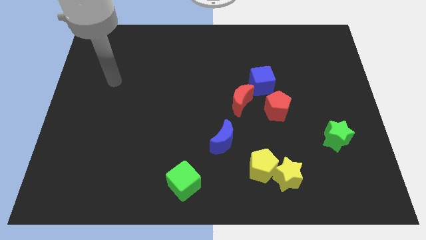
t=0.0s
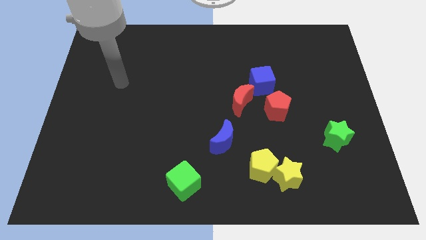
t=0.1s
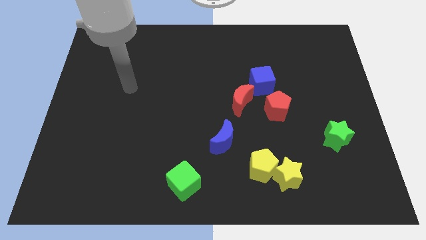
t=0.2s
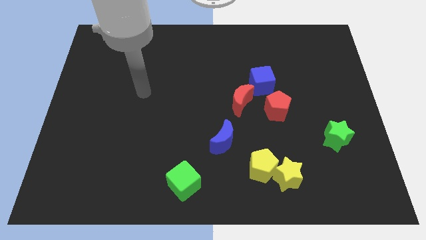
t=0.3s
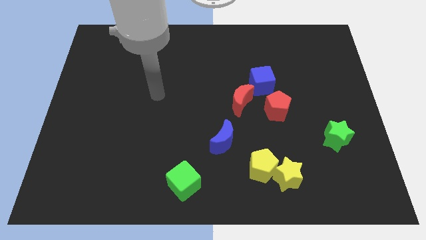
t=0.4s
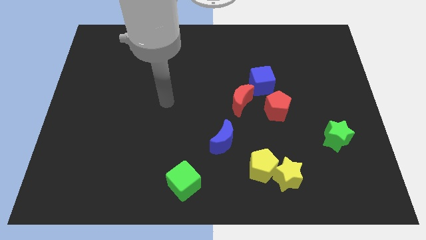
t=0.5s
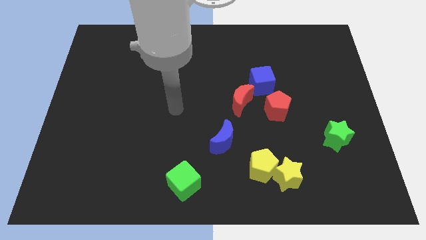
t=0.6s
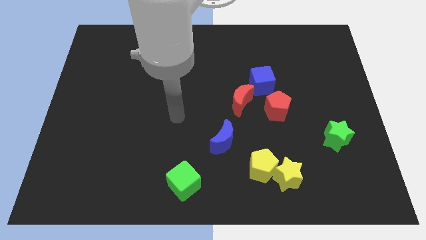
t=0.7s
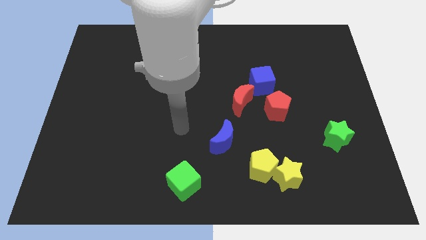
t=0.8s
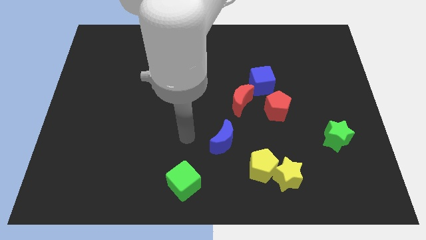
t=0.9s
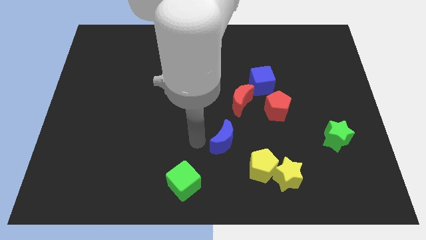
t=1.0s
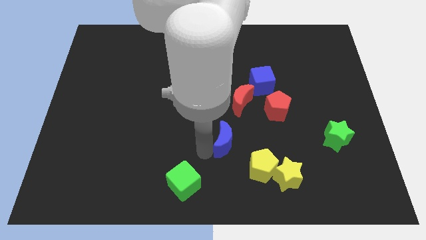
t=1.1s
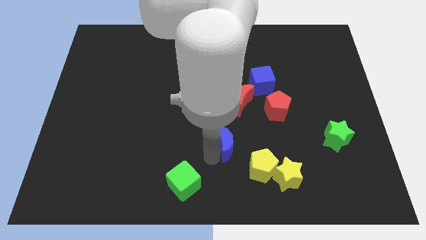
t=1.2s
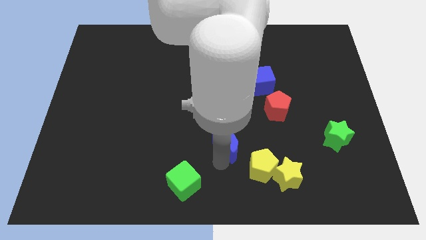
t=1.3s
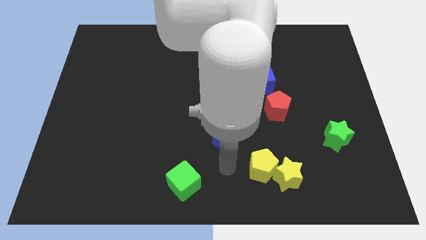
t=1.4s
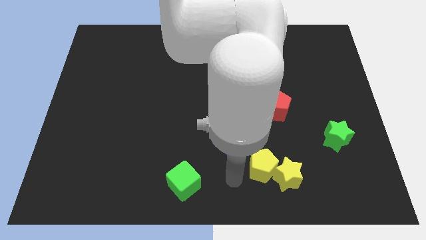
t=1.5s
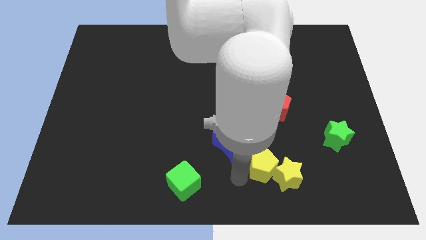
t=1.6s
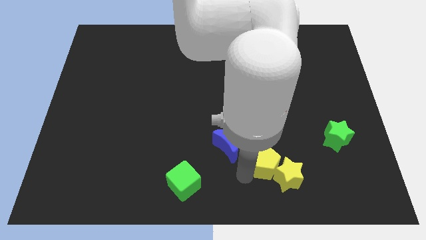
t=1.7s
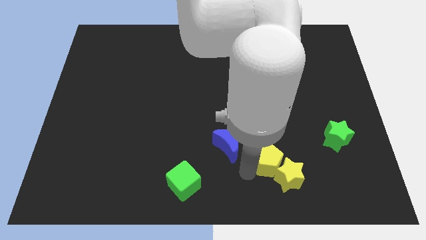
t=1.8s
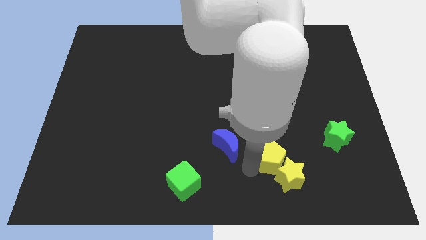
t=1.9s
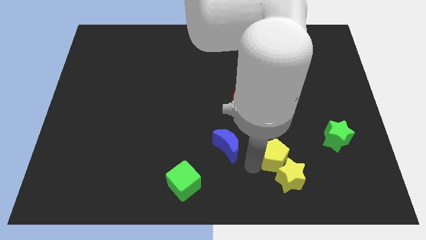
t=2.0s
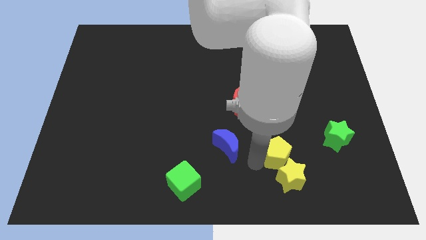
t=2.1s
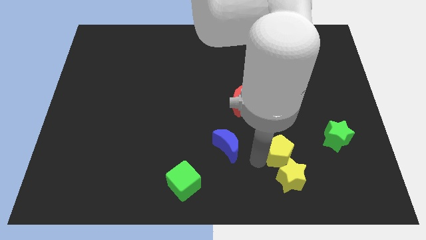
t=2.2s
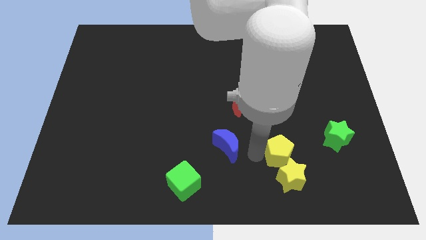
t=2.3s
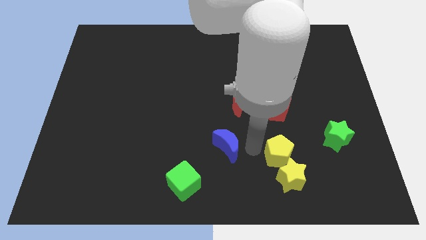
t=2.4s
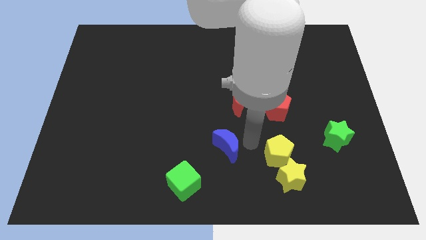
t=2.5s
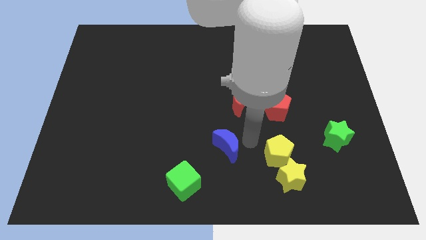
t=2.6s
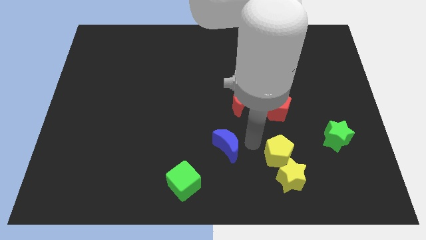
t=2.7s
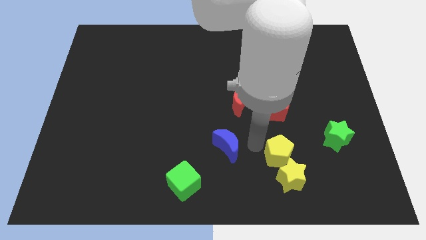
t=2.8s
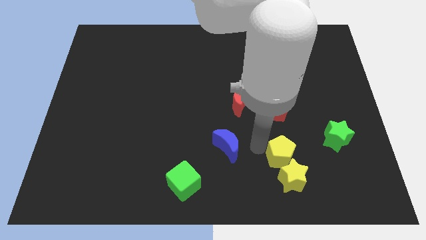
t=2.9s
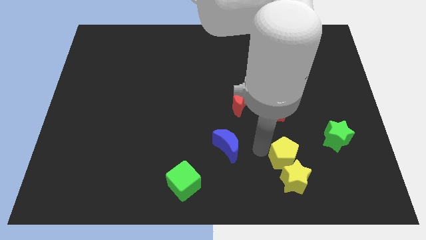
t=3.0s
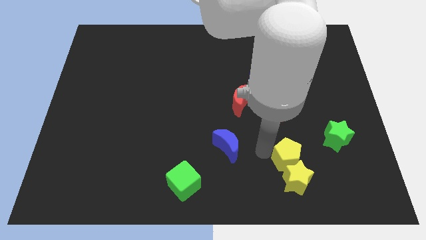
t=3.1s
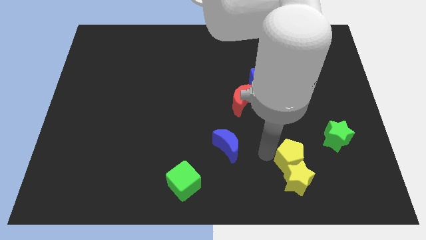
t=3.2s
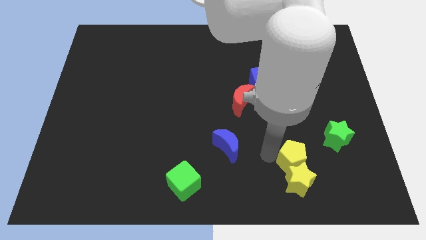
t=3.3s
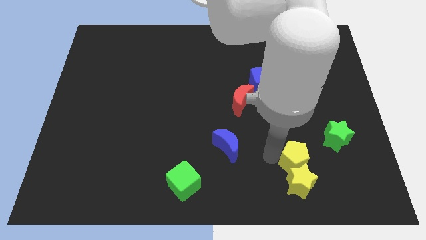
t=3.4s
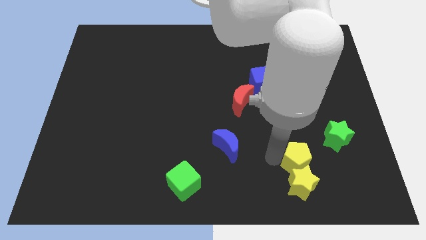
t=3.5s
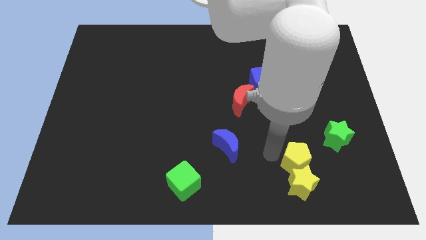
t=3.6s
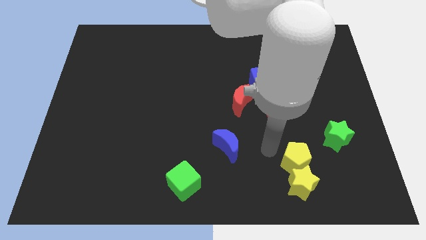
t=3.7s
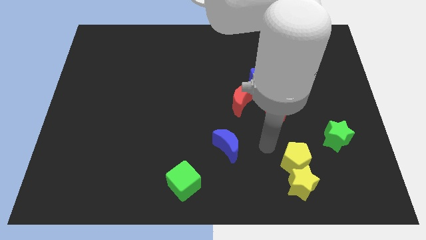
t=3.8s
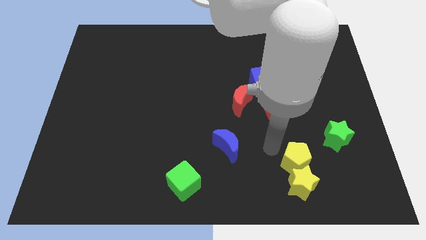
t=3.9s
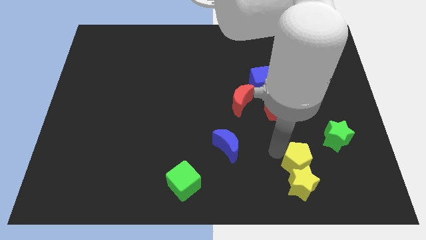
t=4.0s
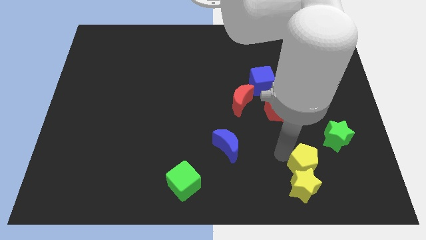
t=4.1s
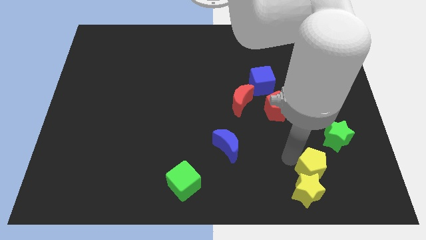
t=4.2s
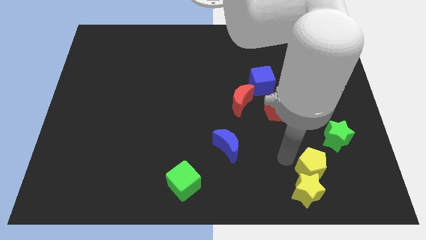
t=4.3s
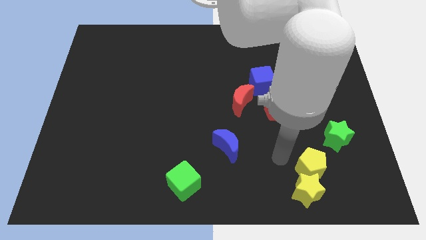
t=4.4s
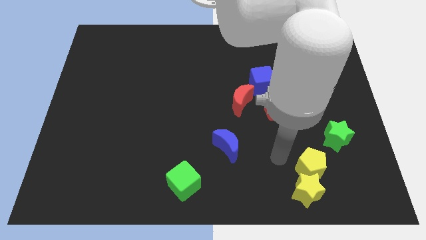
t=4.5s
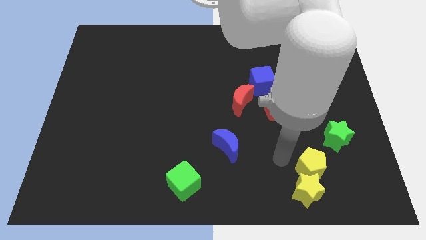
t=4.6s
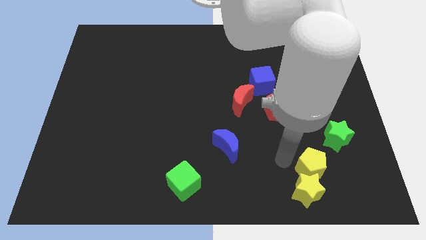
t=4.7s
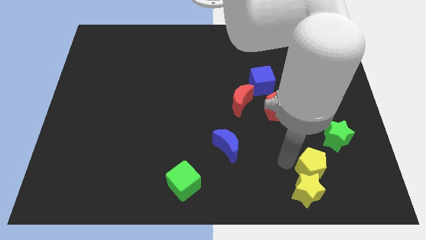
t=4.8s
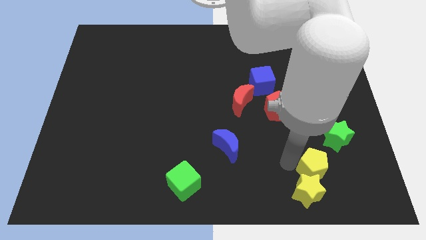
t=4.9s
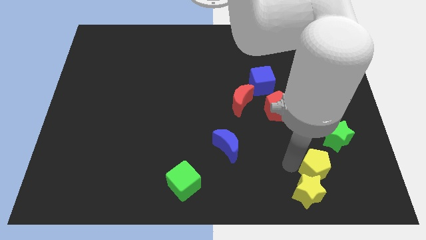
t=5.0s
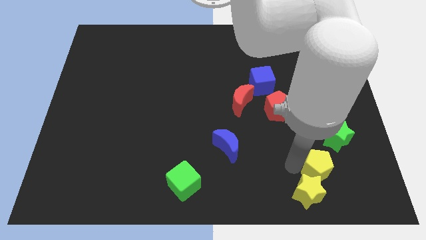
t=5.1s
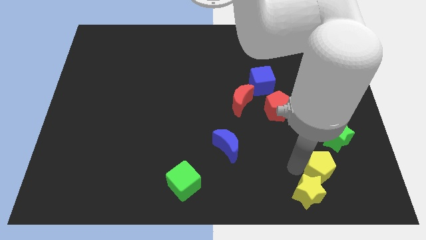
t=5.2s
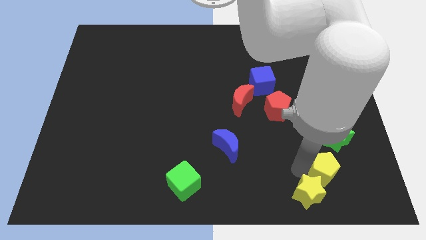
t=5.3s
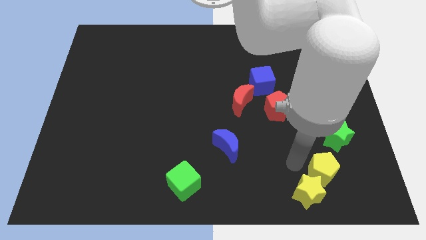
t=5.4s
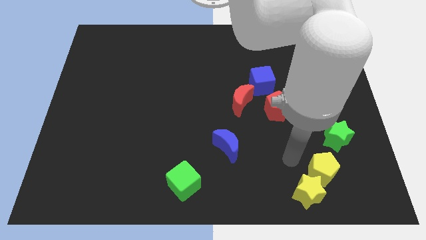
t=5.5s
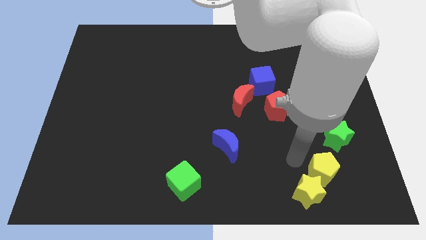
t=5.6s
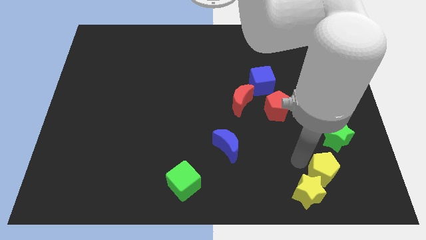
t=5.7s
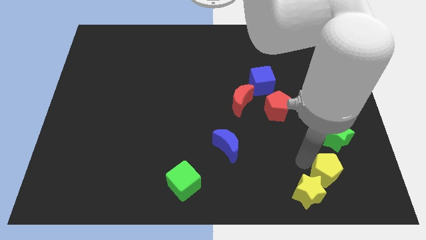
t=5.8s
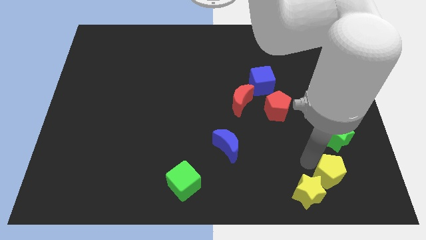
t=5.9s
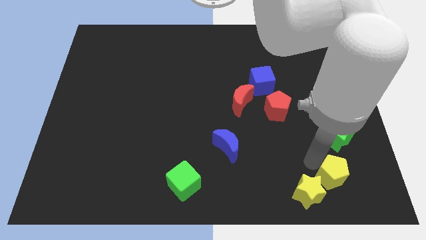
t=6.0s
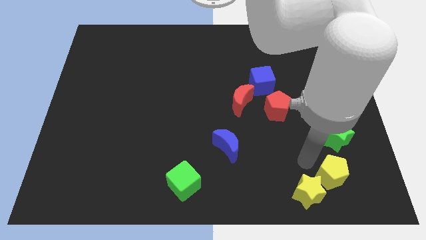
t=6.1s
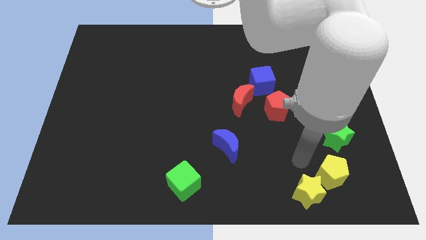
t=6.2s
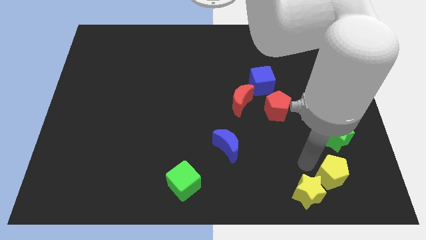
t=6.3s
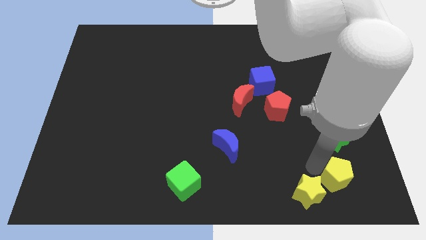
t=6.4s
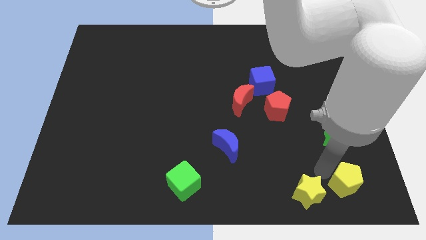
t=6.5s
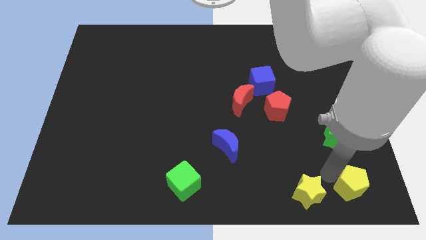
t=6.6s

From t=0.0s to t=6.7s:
put the yellow pentagon to the bottom right corner

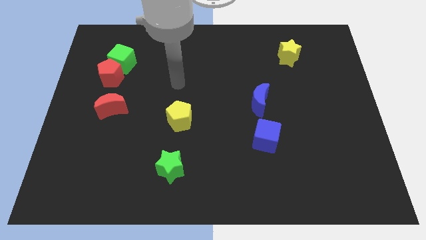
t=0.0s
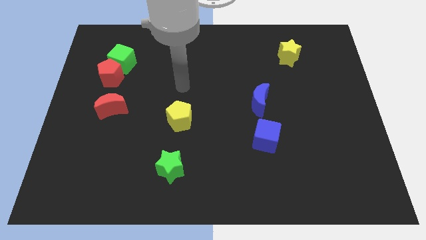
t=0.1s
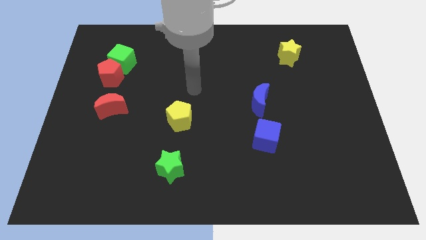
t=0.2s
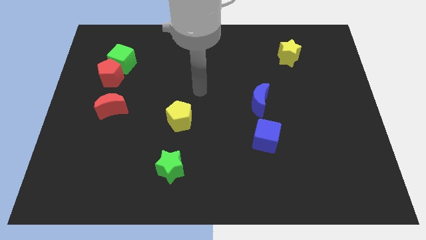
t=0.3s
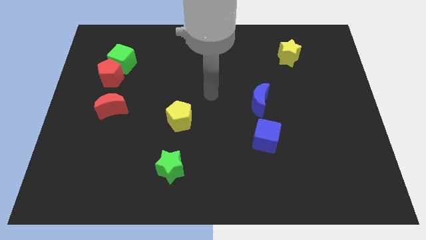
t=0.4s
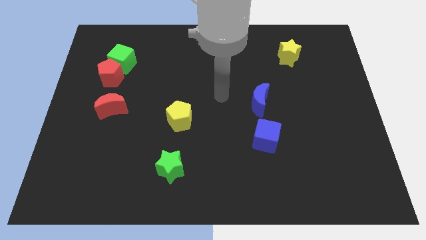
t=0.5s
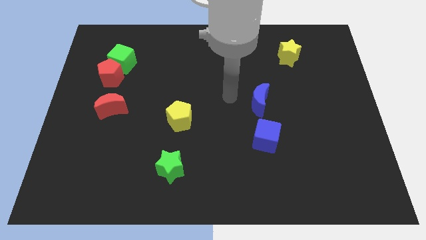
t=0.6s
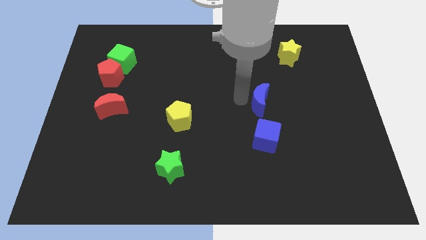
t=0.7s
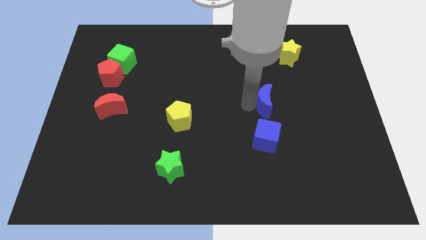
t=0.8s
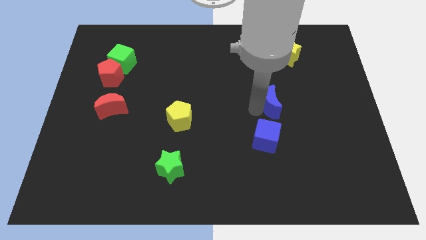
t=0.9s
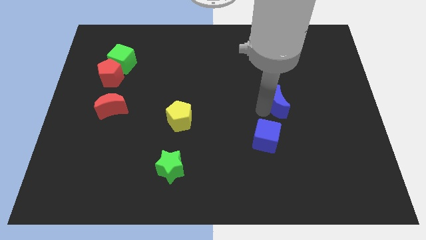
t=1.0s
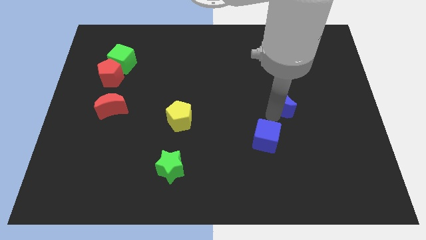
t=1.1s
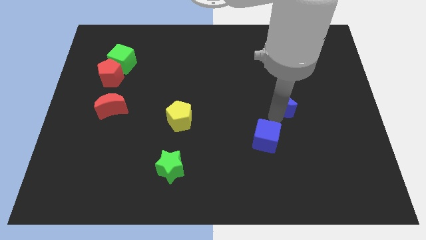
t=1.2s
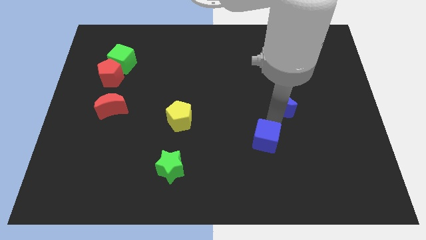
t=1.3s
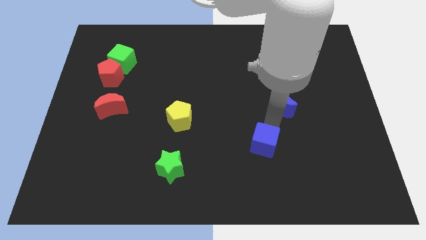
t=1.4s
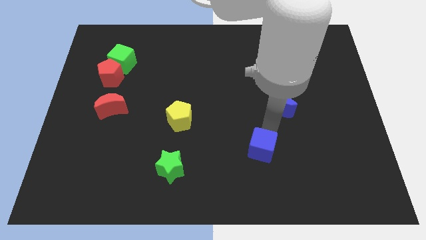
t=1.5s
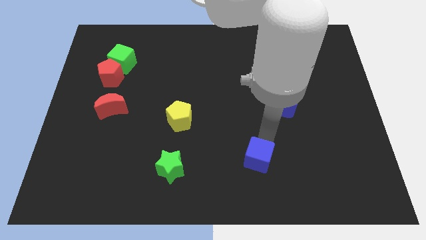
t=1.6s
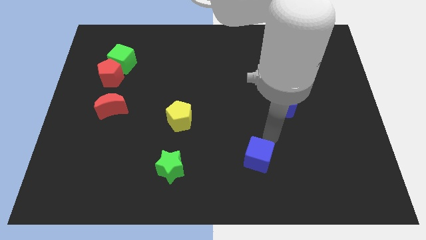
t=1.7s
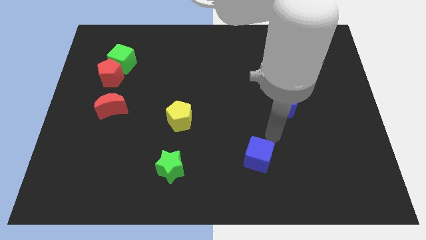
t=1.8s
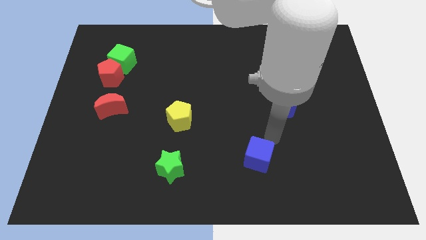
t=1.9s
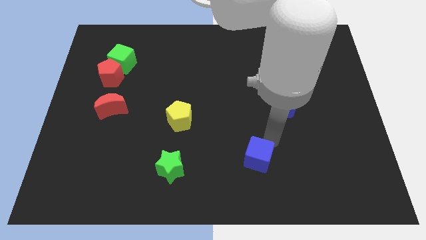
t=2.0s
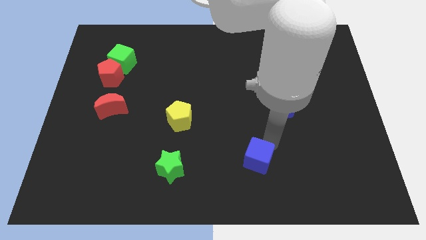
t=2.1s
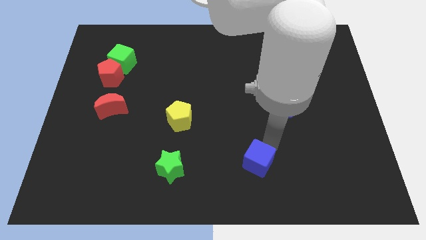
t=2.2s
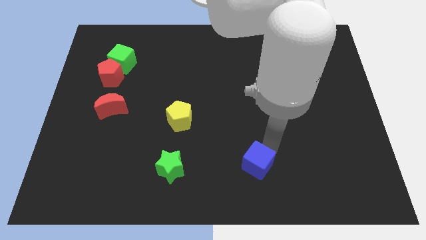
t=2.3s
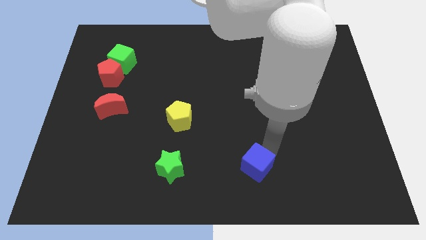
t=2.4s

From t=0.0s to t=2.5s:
slide the blue cube to the bottom
